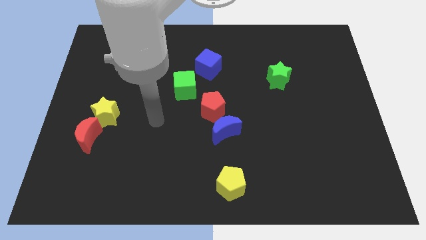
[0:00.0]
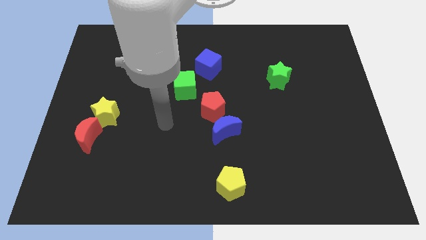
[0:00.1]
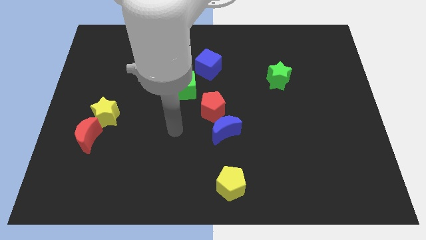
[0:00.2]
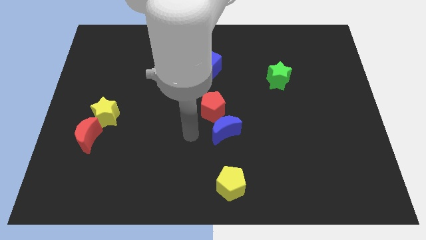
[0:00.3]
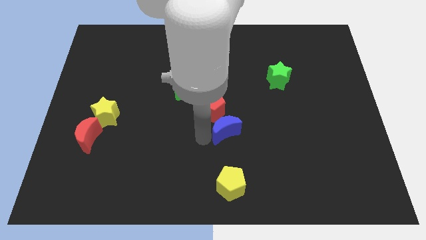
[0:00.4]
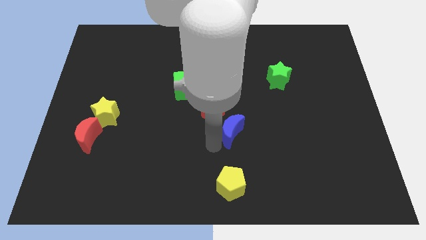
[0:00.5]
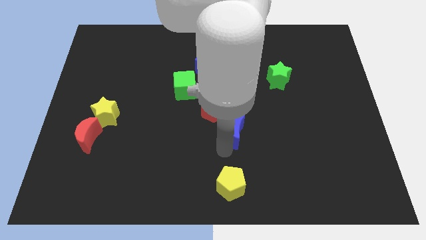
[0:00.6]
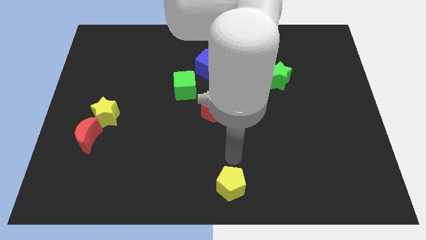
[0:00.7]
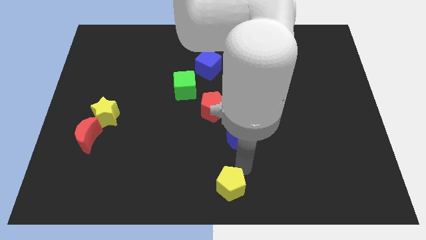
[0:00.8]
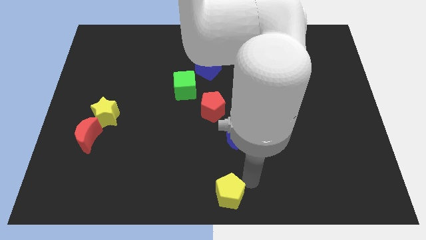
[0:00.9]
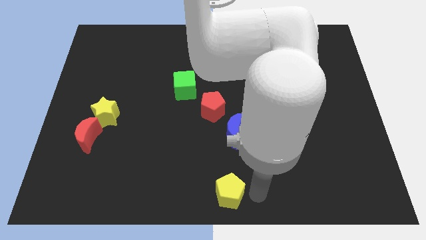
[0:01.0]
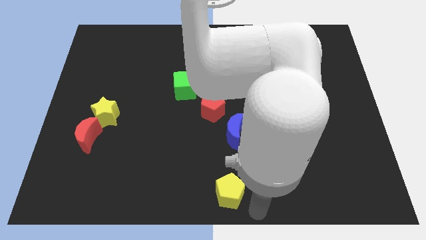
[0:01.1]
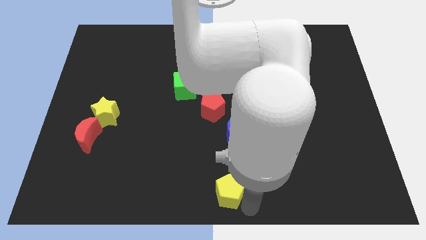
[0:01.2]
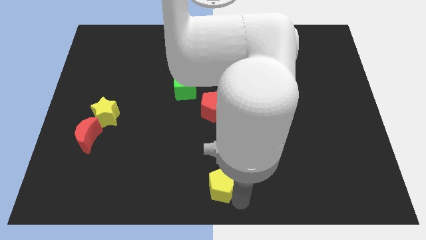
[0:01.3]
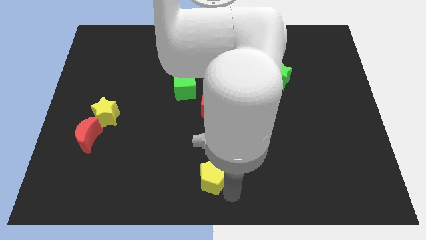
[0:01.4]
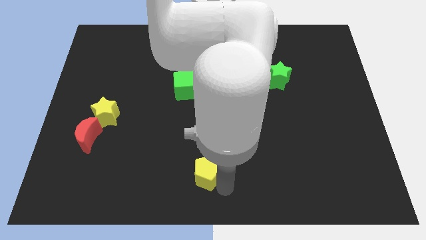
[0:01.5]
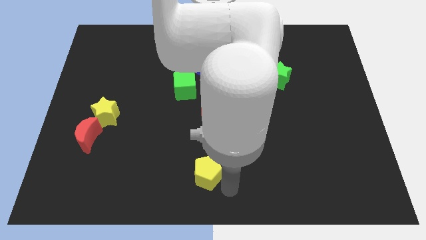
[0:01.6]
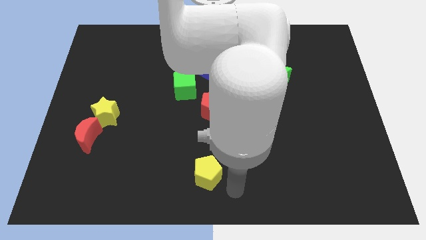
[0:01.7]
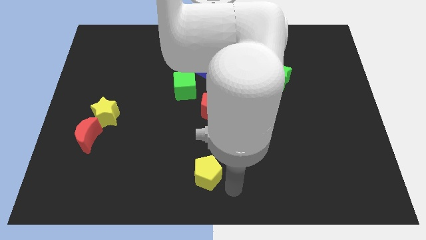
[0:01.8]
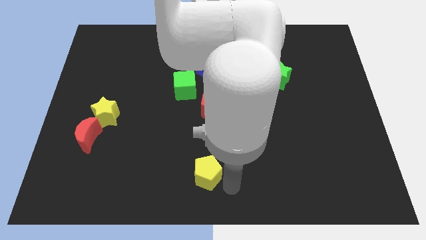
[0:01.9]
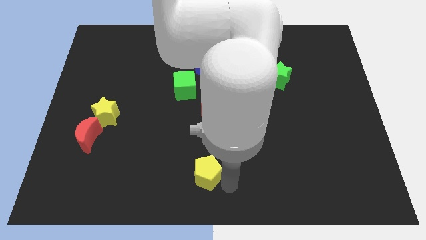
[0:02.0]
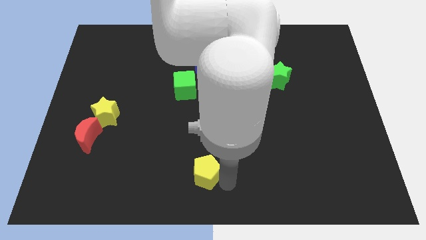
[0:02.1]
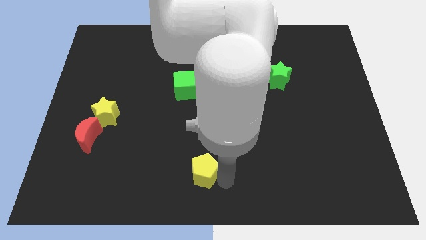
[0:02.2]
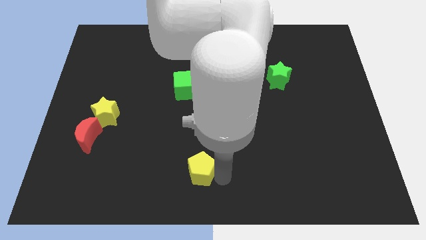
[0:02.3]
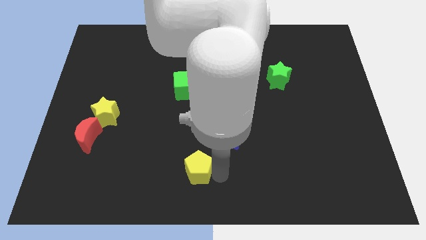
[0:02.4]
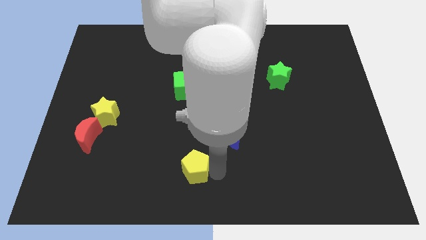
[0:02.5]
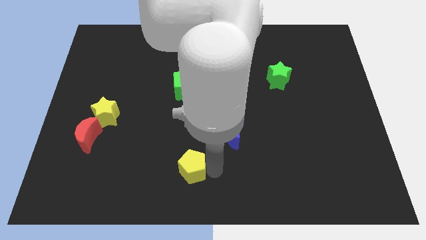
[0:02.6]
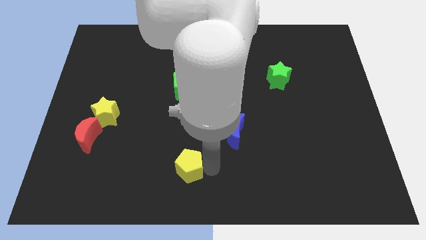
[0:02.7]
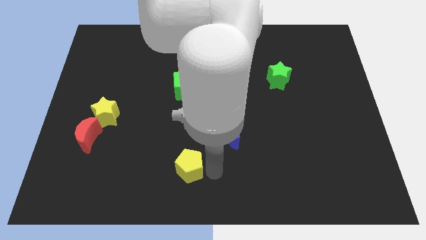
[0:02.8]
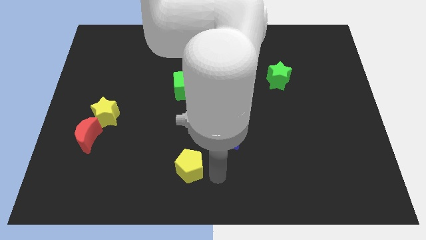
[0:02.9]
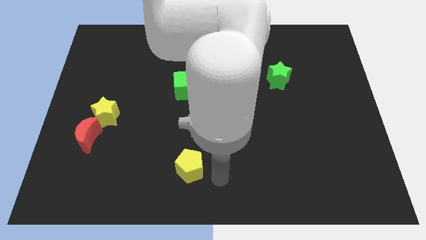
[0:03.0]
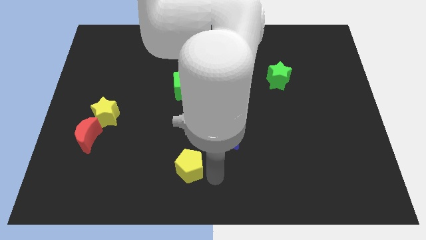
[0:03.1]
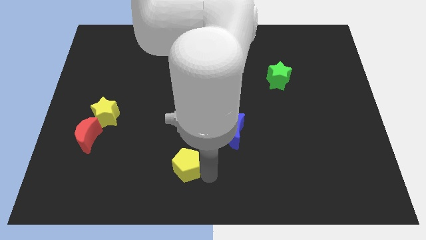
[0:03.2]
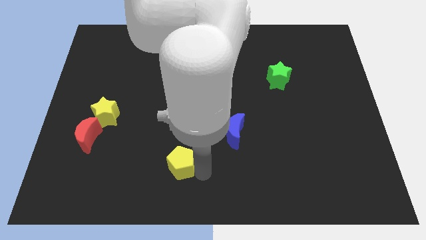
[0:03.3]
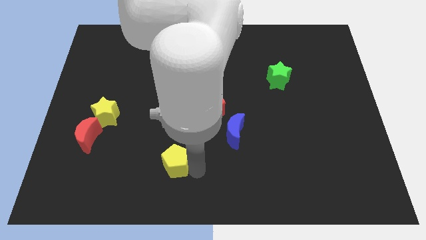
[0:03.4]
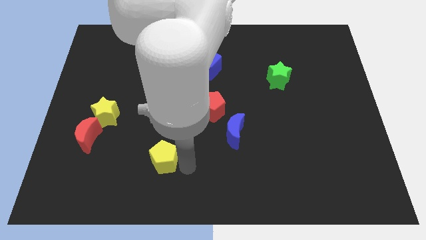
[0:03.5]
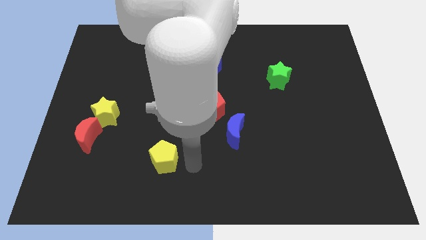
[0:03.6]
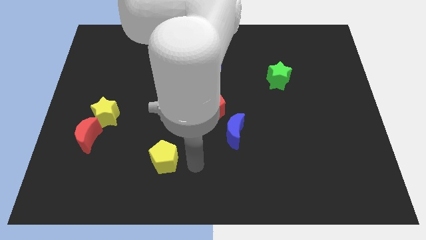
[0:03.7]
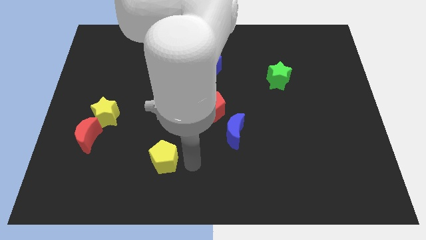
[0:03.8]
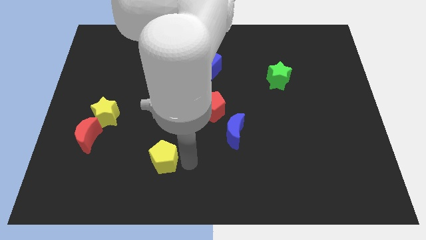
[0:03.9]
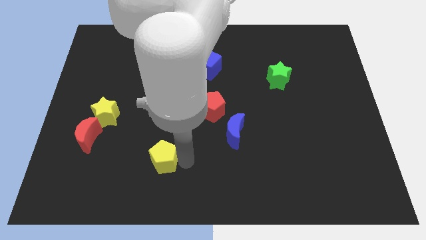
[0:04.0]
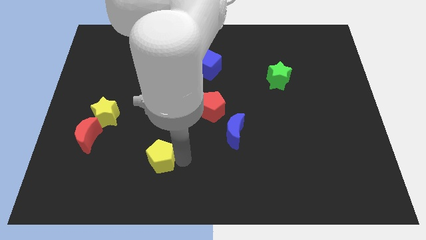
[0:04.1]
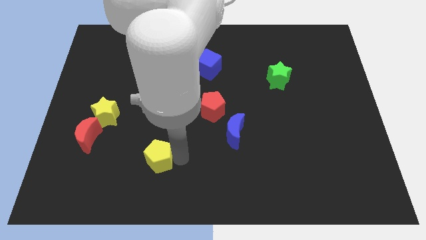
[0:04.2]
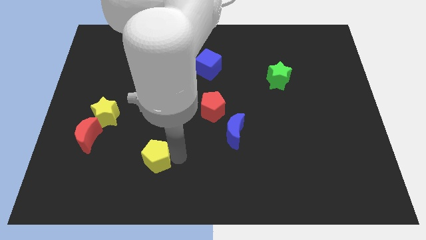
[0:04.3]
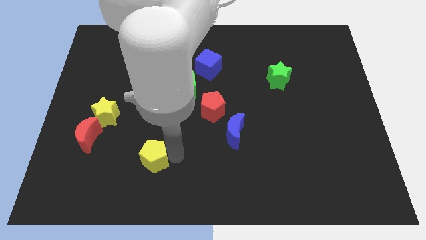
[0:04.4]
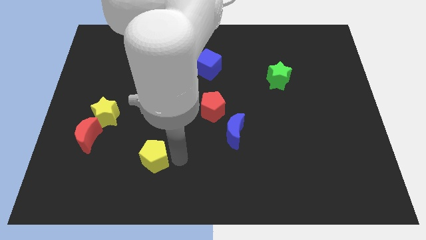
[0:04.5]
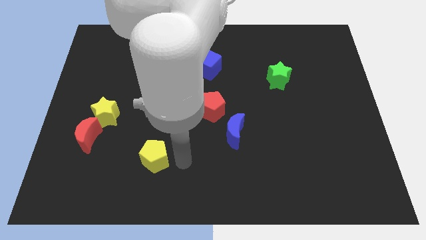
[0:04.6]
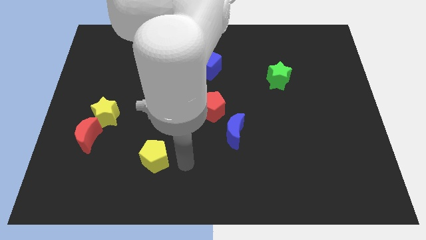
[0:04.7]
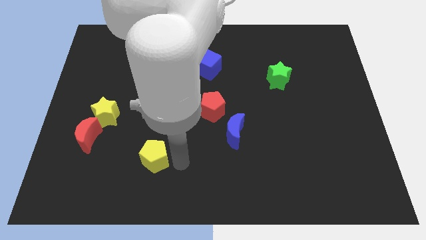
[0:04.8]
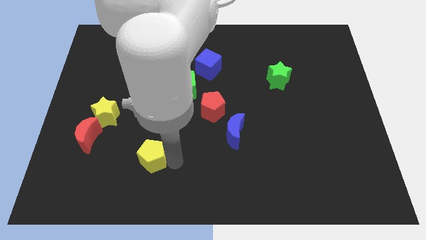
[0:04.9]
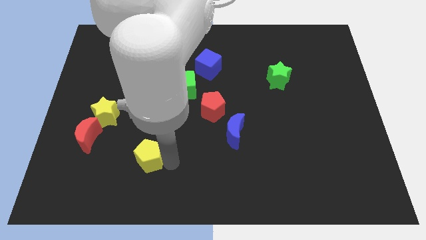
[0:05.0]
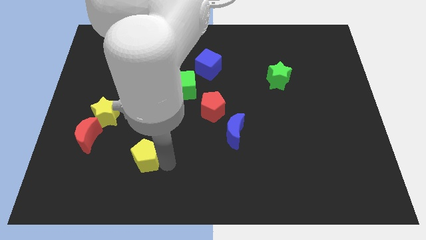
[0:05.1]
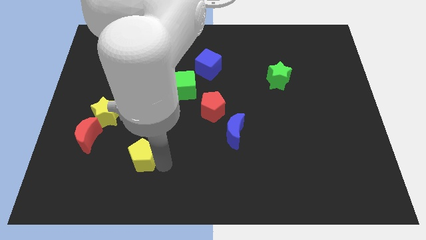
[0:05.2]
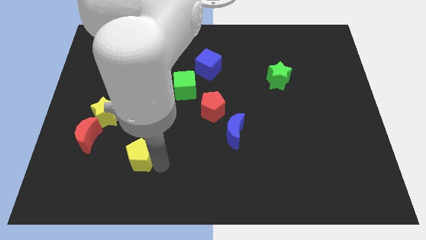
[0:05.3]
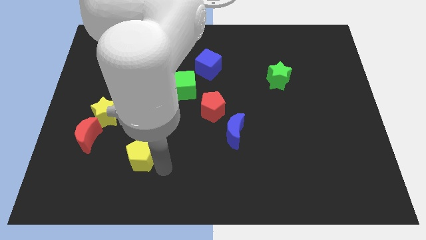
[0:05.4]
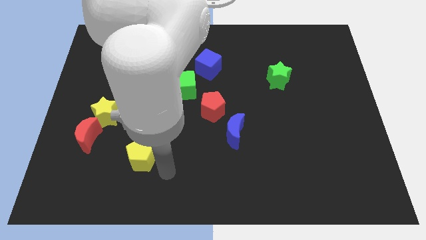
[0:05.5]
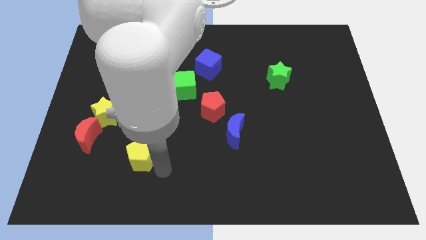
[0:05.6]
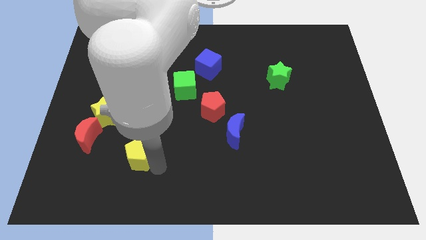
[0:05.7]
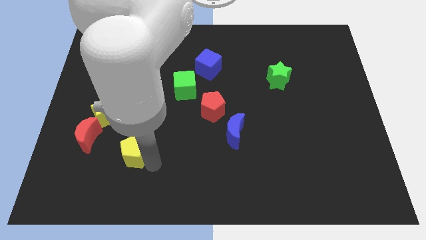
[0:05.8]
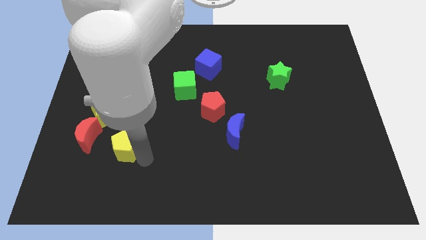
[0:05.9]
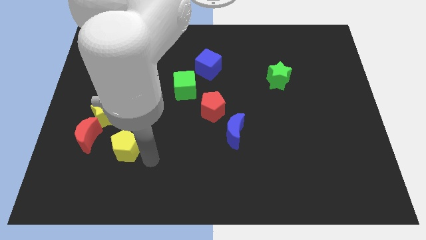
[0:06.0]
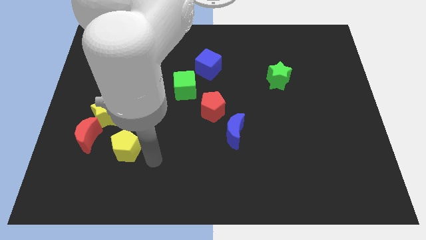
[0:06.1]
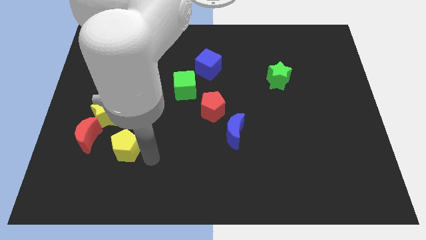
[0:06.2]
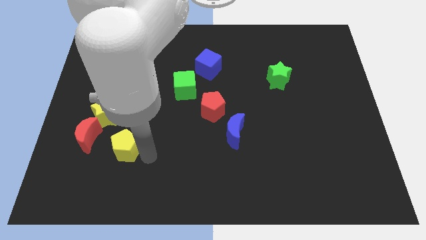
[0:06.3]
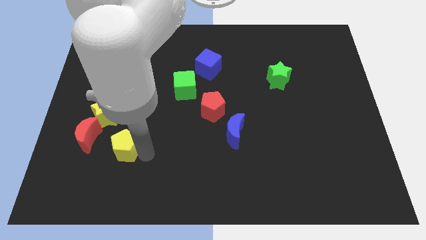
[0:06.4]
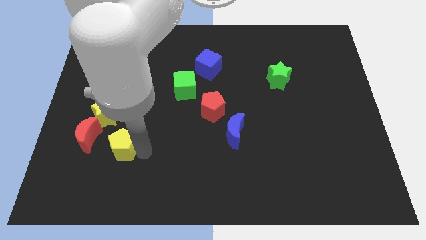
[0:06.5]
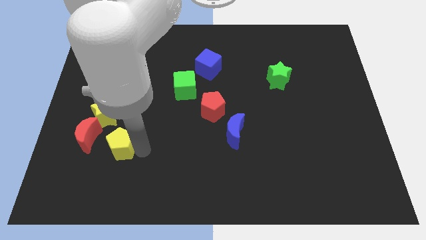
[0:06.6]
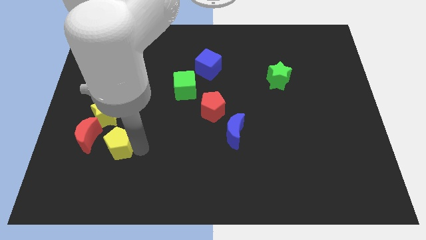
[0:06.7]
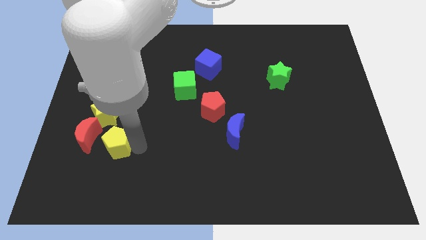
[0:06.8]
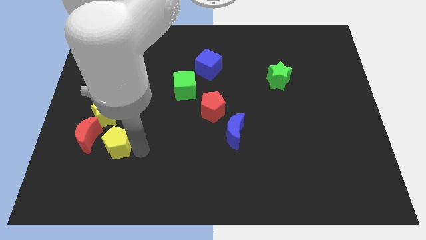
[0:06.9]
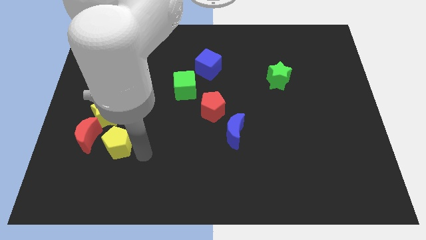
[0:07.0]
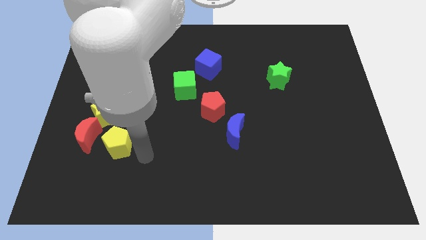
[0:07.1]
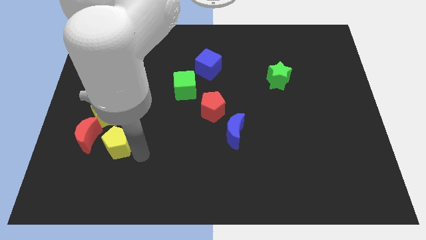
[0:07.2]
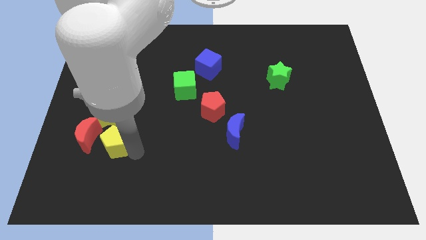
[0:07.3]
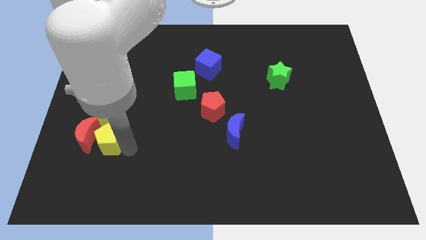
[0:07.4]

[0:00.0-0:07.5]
put the yellow pentagon to the red moon
